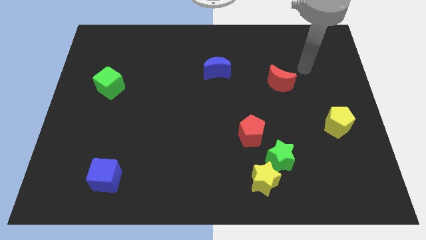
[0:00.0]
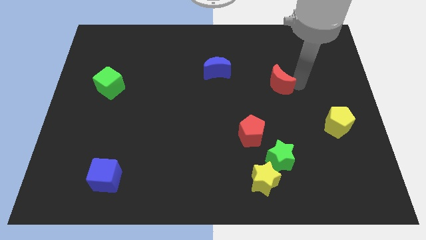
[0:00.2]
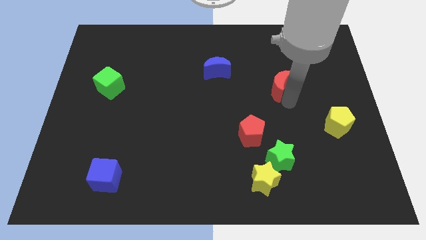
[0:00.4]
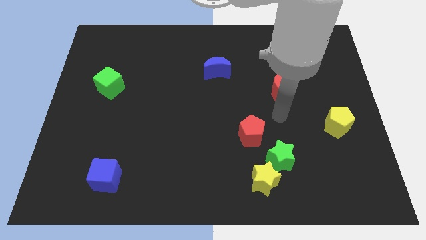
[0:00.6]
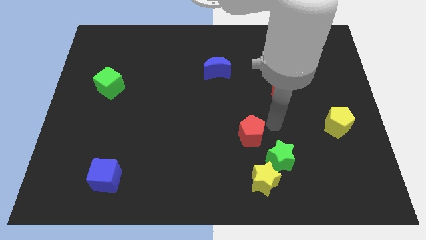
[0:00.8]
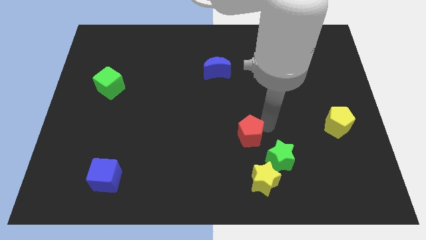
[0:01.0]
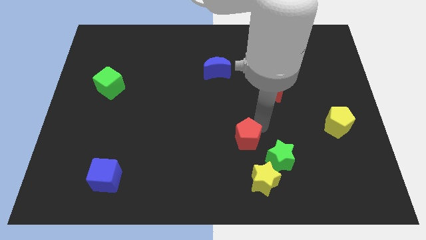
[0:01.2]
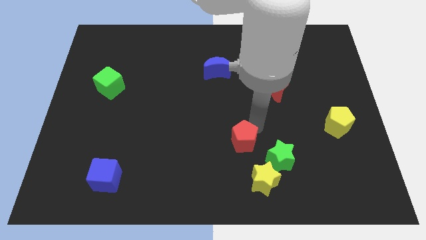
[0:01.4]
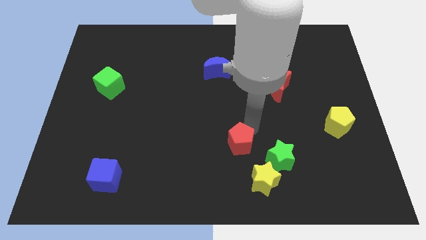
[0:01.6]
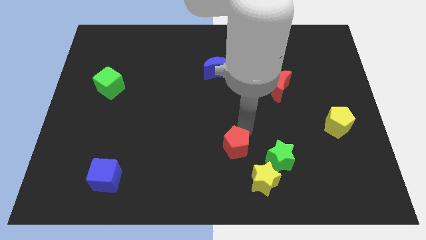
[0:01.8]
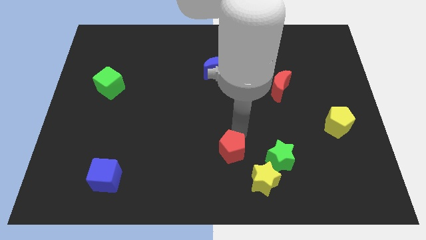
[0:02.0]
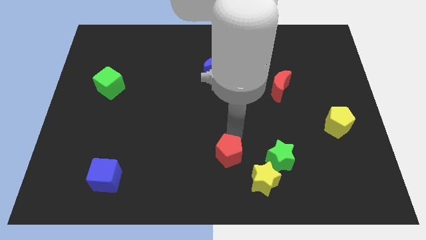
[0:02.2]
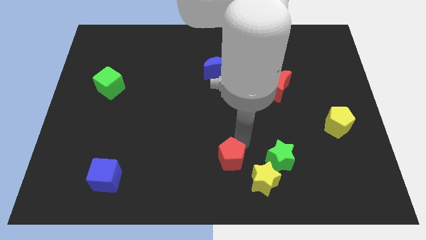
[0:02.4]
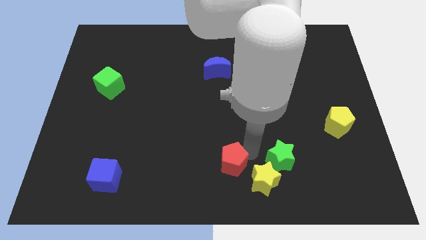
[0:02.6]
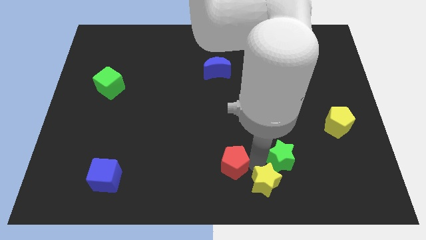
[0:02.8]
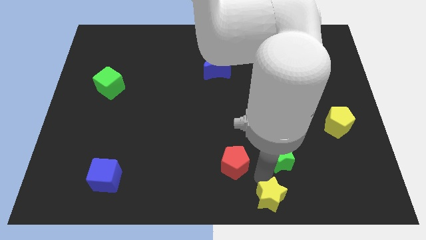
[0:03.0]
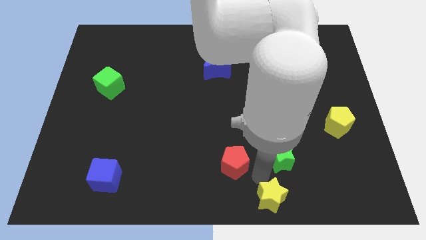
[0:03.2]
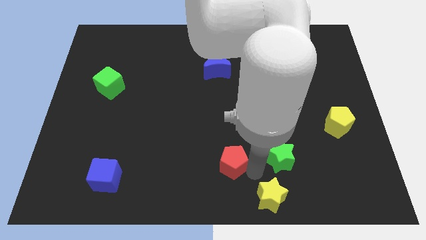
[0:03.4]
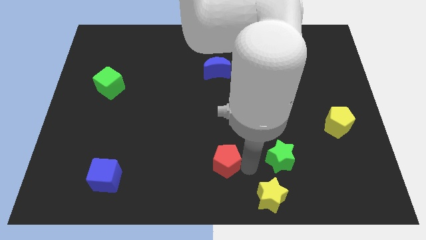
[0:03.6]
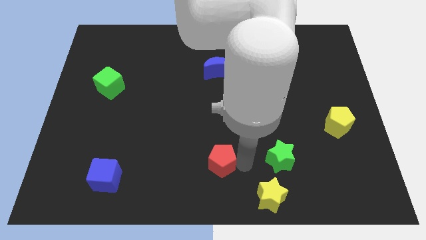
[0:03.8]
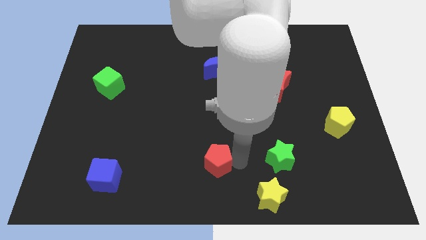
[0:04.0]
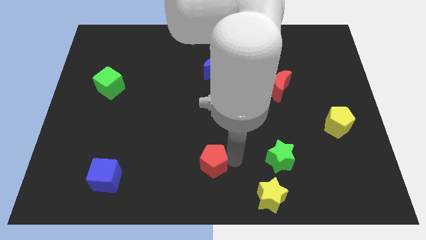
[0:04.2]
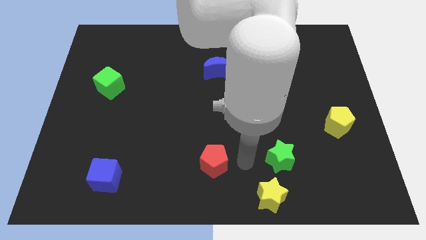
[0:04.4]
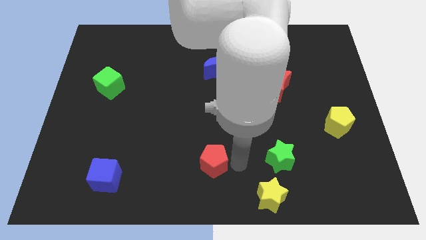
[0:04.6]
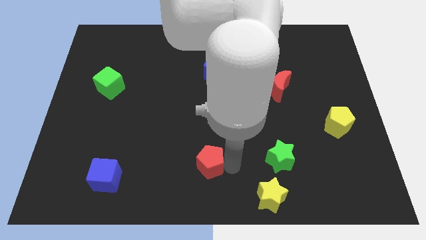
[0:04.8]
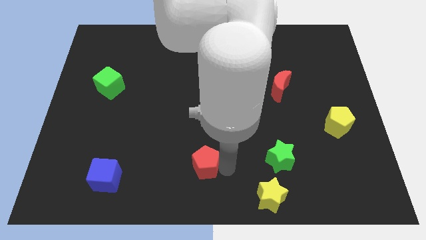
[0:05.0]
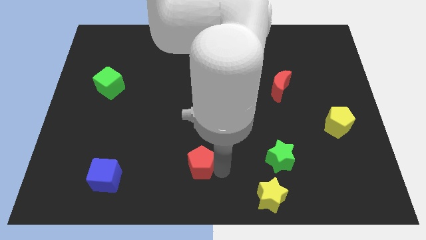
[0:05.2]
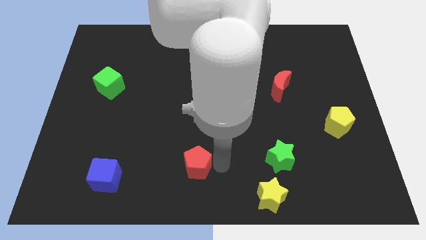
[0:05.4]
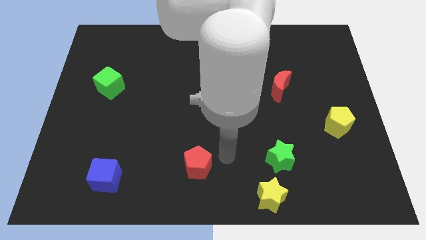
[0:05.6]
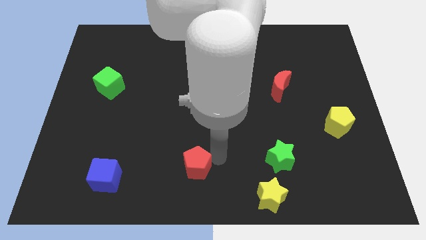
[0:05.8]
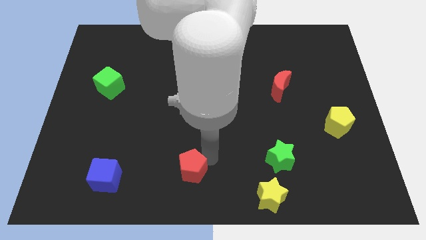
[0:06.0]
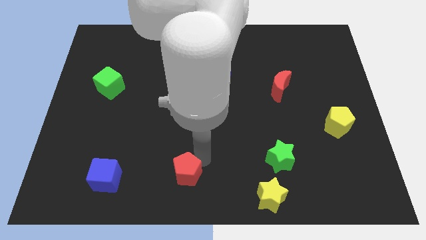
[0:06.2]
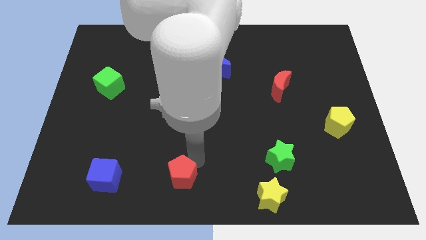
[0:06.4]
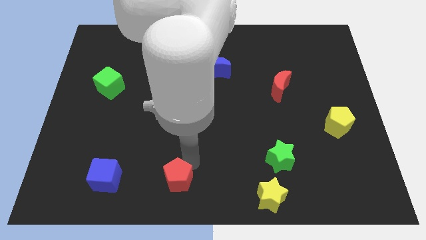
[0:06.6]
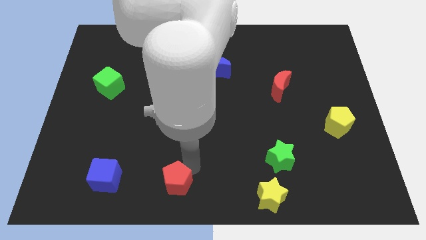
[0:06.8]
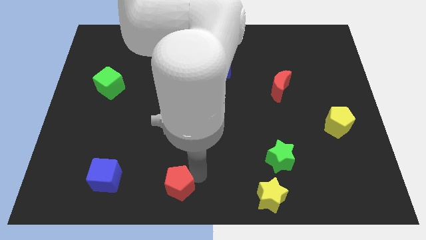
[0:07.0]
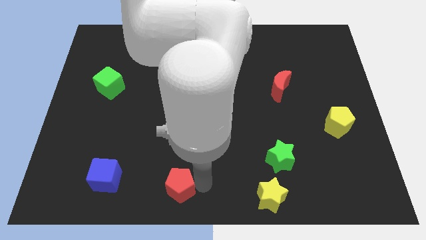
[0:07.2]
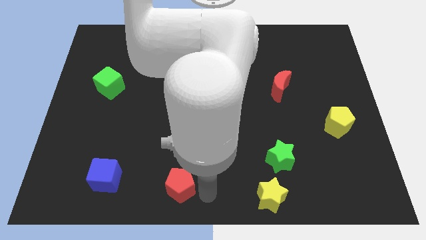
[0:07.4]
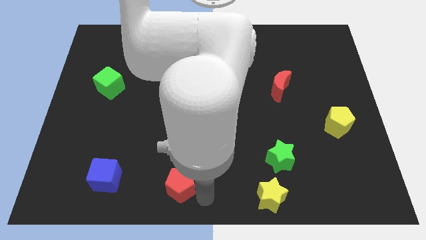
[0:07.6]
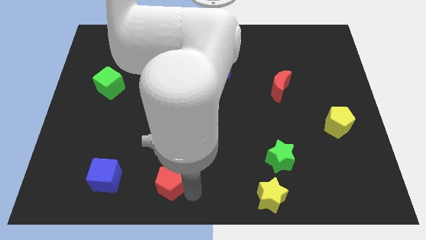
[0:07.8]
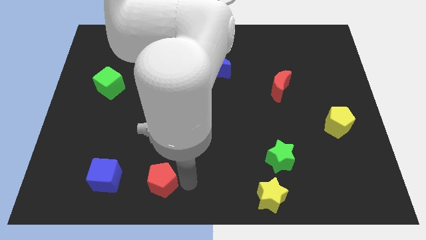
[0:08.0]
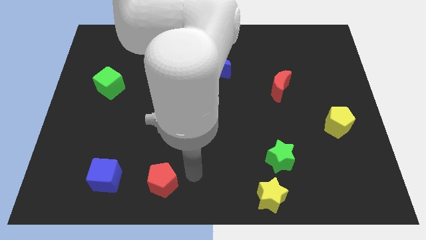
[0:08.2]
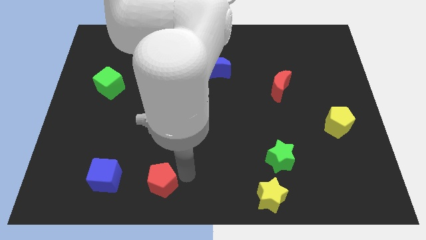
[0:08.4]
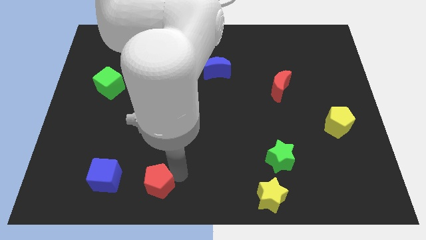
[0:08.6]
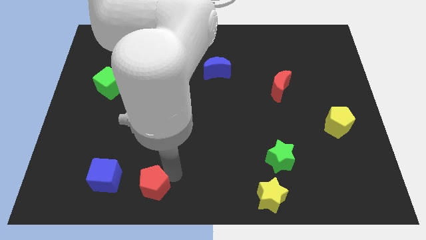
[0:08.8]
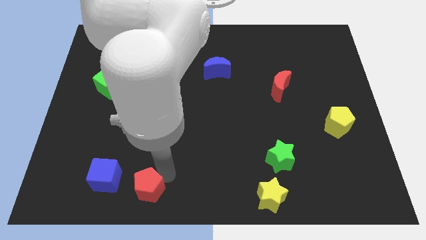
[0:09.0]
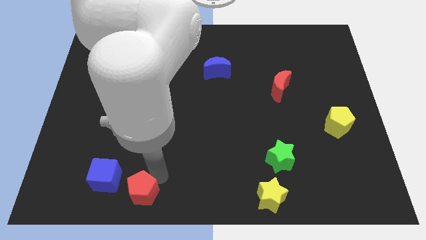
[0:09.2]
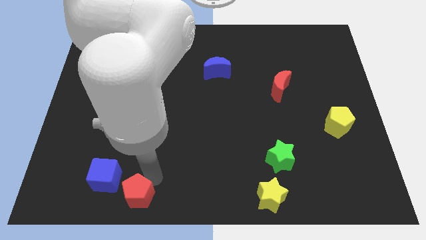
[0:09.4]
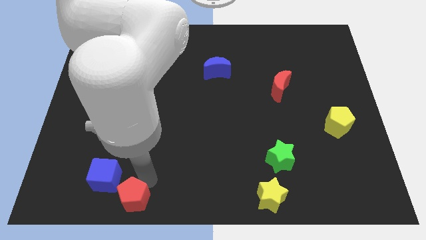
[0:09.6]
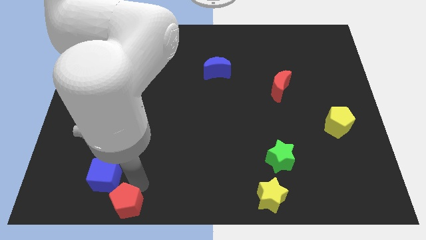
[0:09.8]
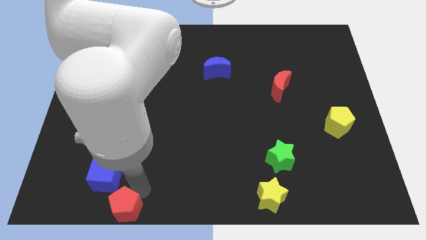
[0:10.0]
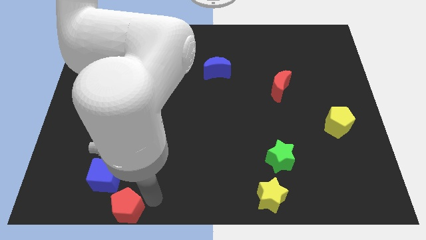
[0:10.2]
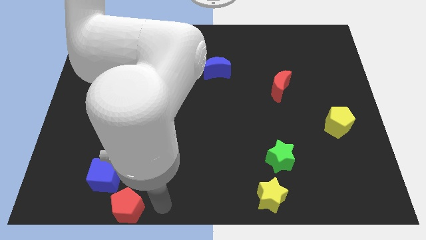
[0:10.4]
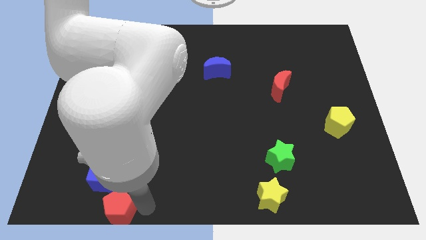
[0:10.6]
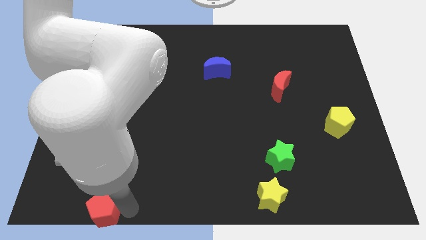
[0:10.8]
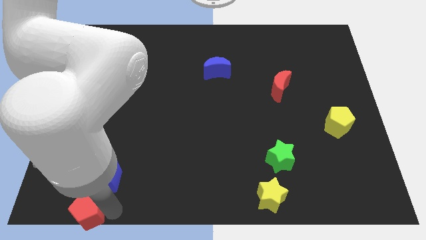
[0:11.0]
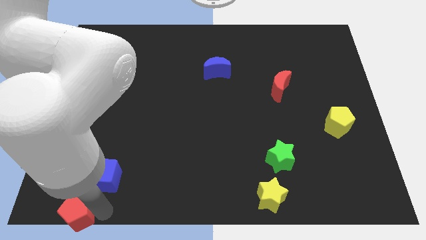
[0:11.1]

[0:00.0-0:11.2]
put the red pentagon to the bottom left of the board

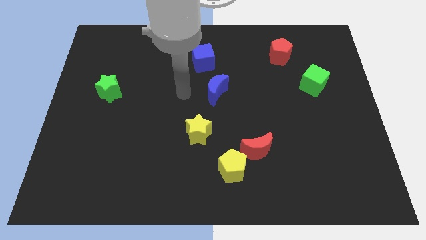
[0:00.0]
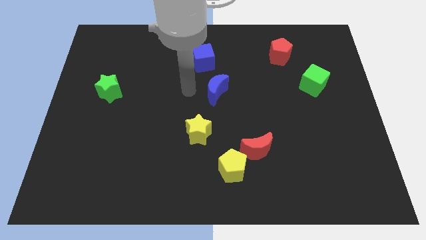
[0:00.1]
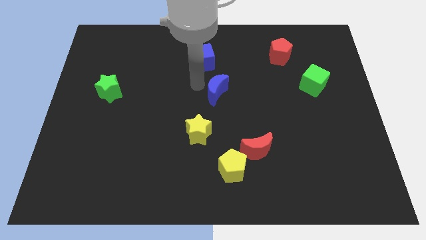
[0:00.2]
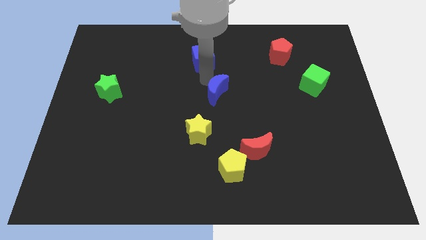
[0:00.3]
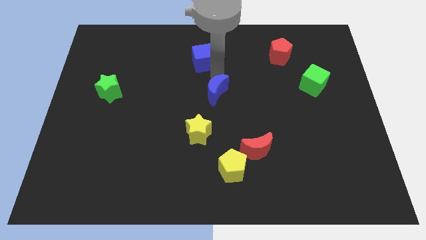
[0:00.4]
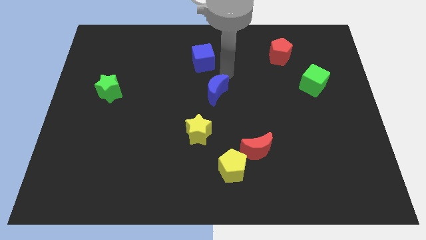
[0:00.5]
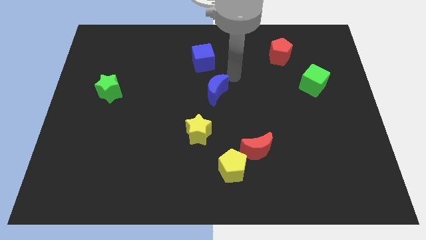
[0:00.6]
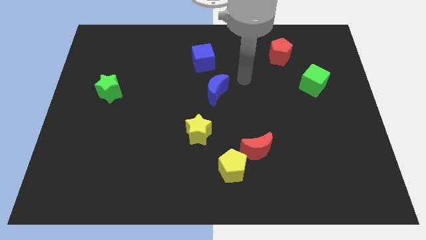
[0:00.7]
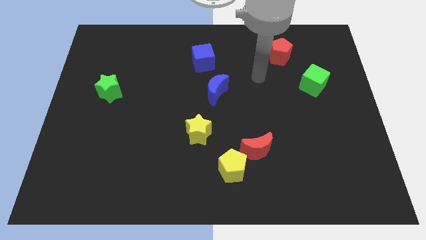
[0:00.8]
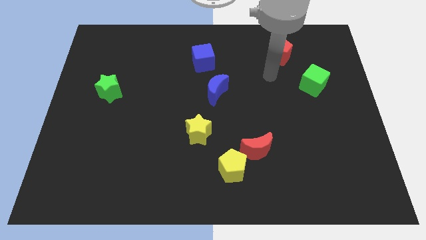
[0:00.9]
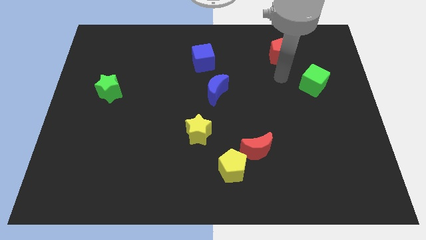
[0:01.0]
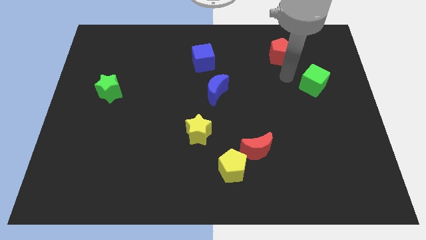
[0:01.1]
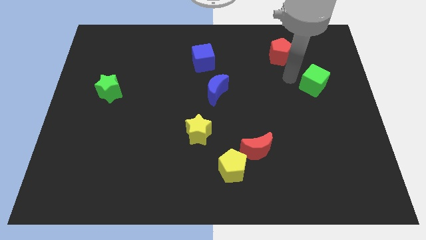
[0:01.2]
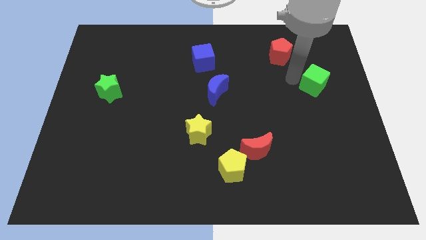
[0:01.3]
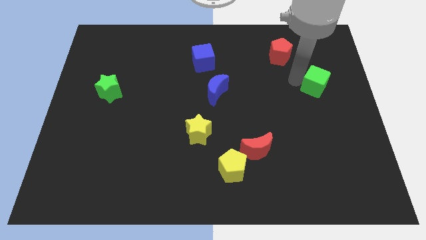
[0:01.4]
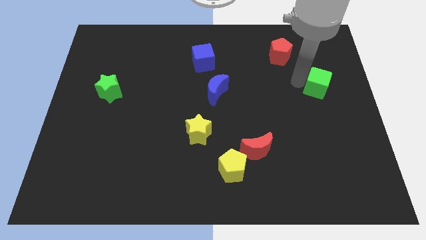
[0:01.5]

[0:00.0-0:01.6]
put the green cube to the right side of the board
